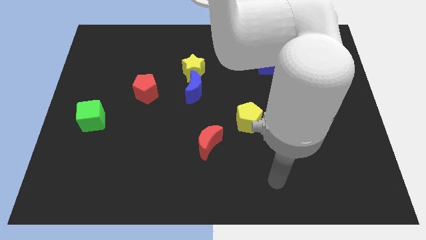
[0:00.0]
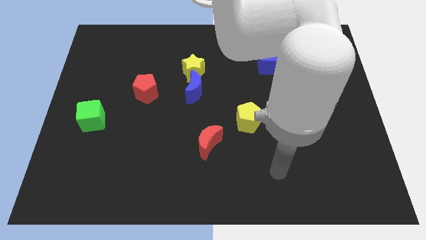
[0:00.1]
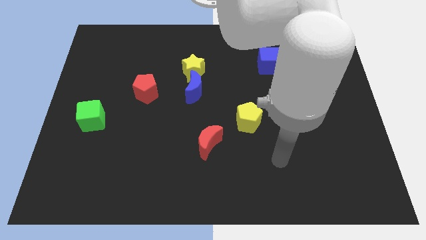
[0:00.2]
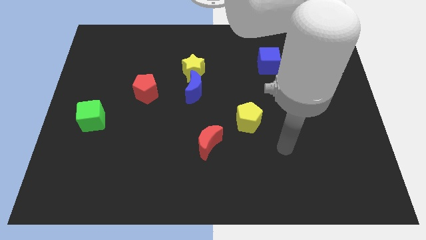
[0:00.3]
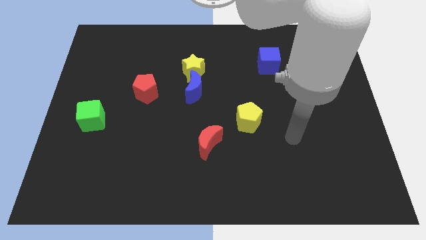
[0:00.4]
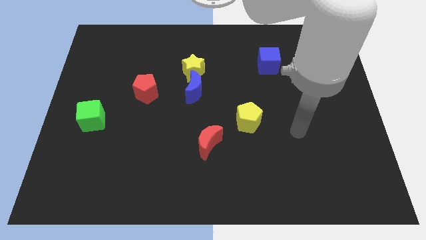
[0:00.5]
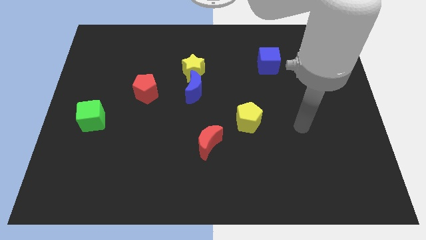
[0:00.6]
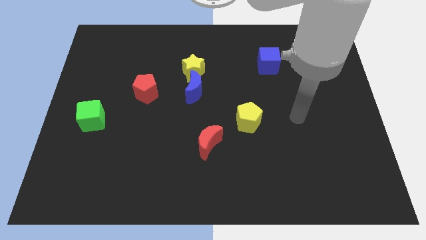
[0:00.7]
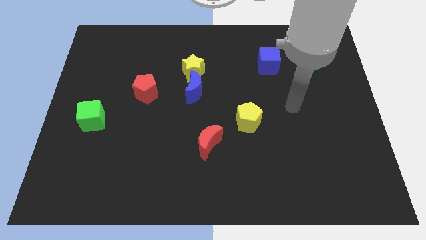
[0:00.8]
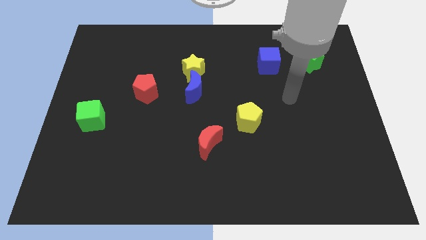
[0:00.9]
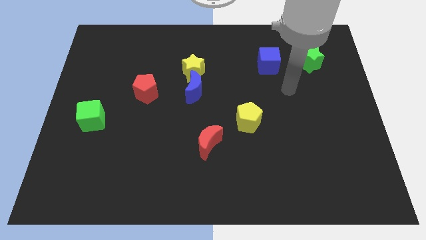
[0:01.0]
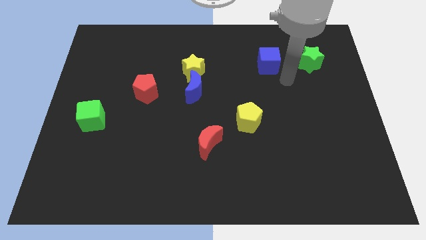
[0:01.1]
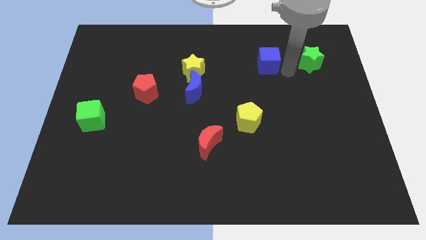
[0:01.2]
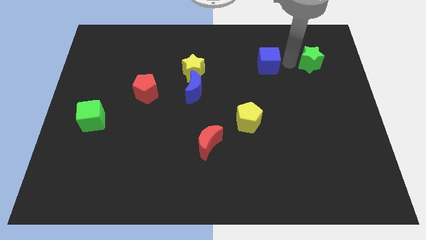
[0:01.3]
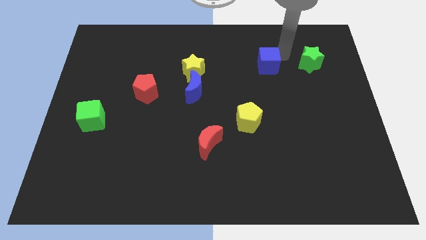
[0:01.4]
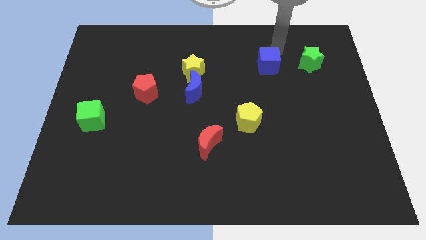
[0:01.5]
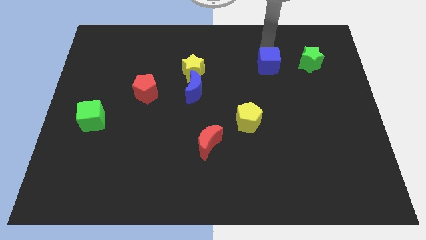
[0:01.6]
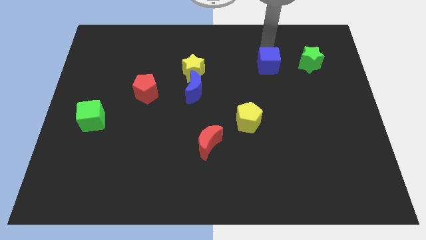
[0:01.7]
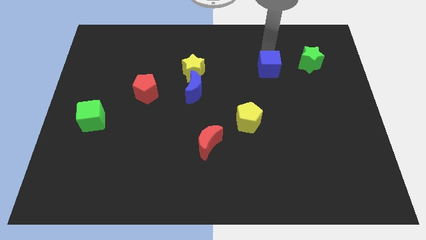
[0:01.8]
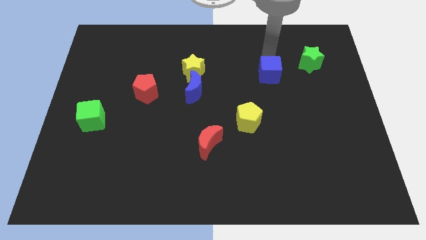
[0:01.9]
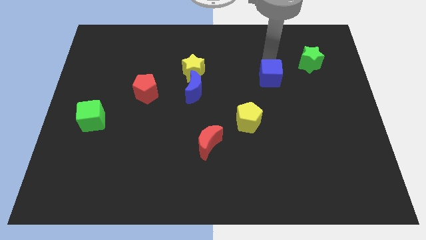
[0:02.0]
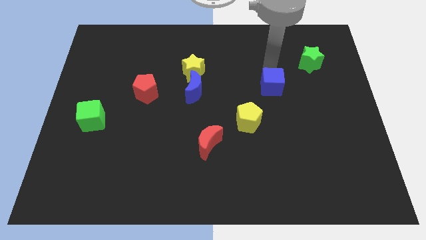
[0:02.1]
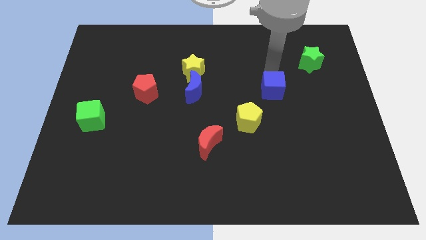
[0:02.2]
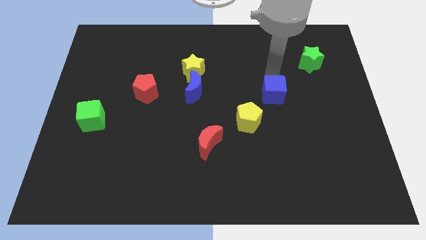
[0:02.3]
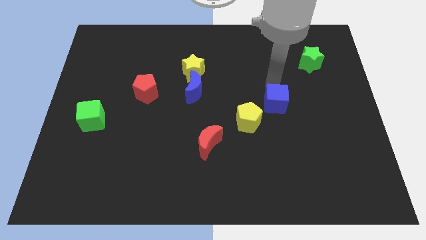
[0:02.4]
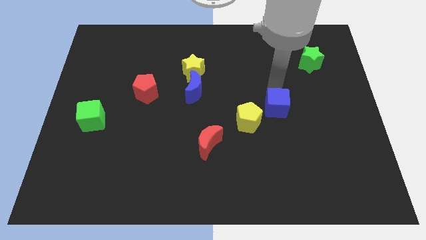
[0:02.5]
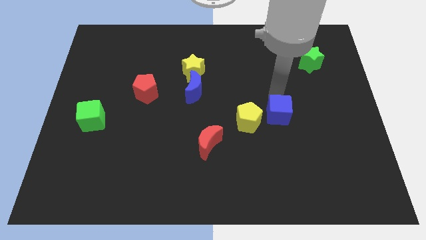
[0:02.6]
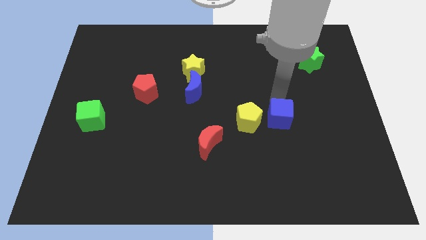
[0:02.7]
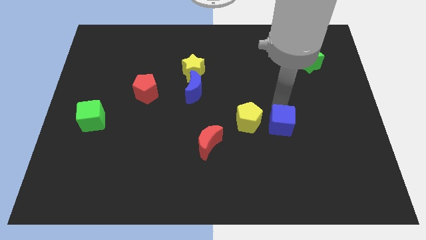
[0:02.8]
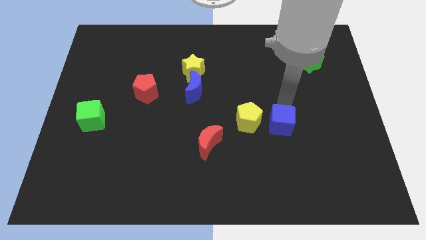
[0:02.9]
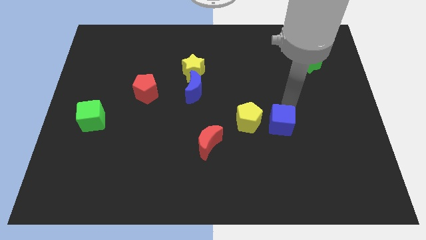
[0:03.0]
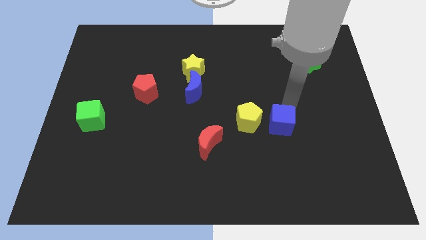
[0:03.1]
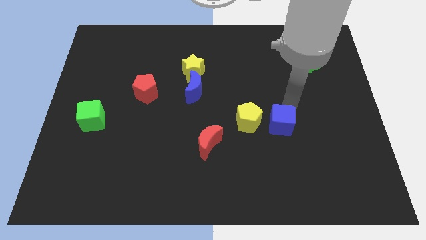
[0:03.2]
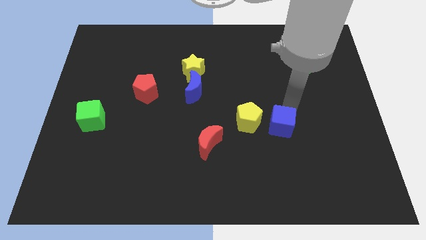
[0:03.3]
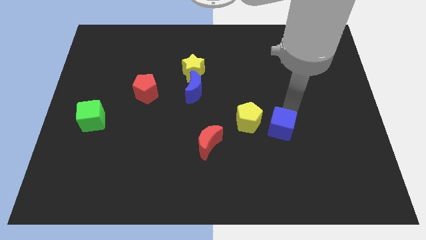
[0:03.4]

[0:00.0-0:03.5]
push the blue cube downwards

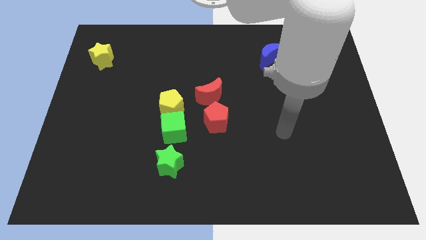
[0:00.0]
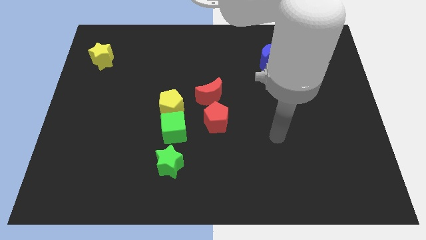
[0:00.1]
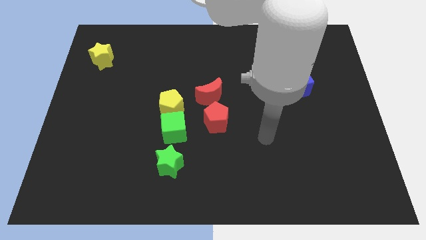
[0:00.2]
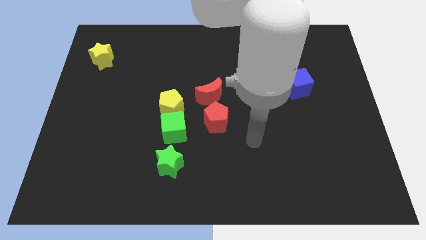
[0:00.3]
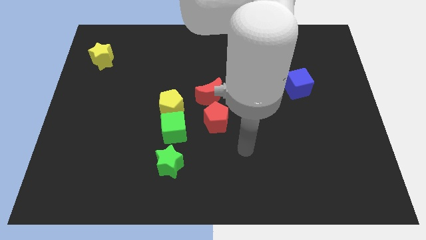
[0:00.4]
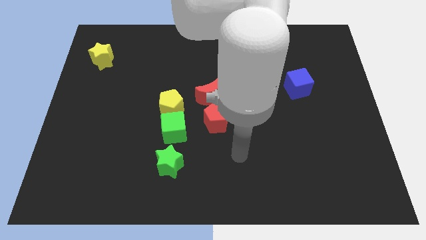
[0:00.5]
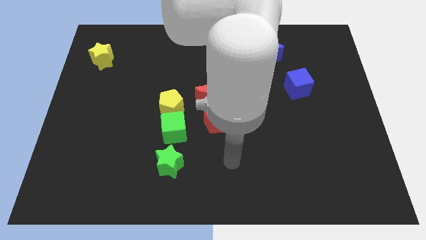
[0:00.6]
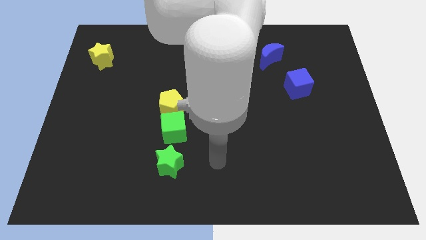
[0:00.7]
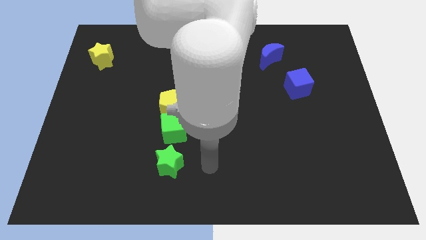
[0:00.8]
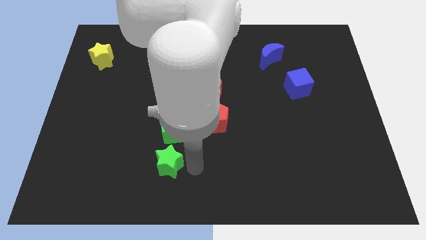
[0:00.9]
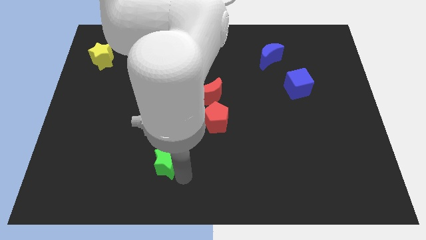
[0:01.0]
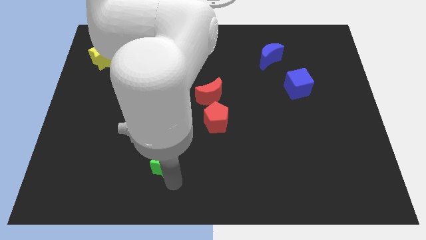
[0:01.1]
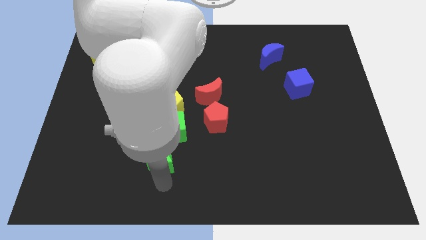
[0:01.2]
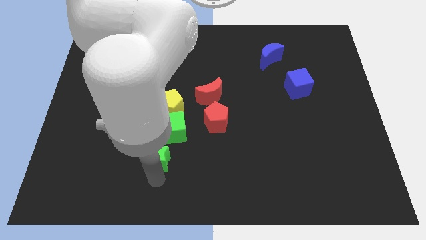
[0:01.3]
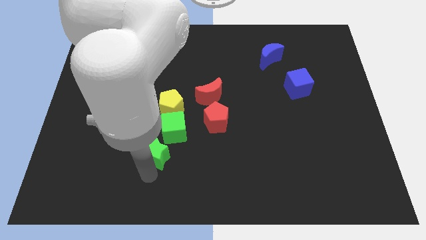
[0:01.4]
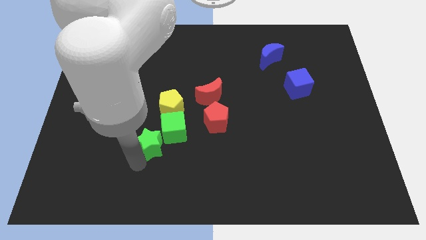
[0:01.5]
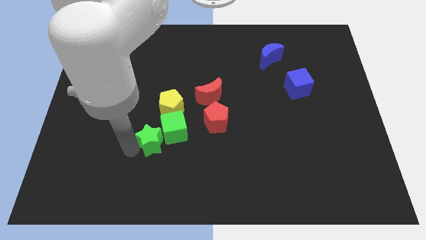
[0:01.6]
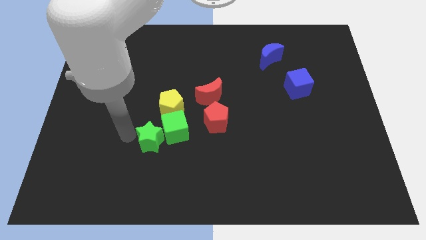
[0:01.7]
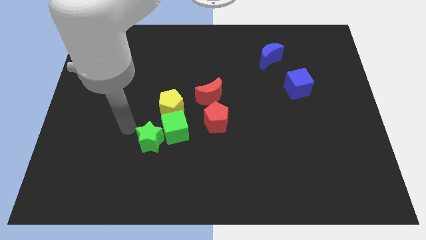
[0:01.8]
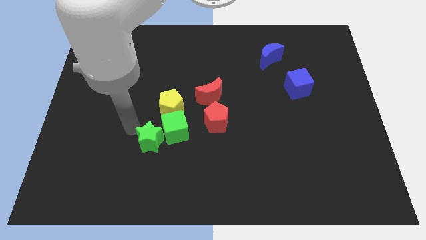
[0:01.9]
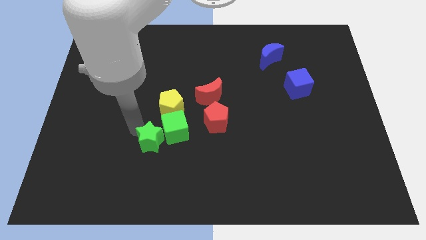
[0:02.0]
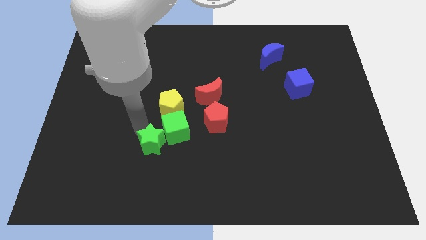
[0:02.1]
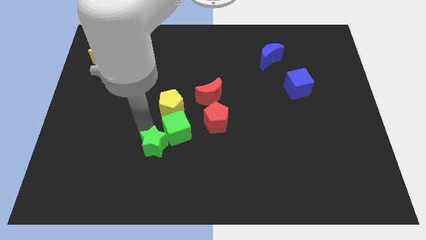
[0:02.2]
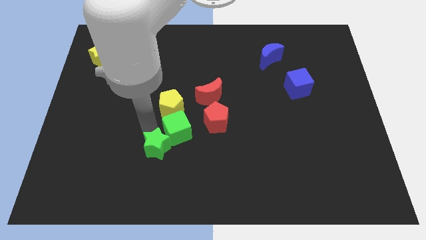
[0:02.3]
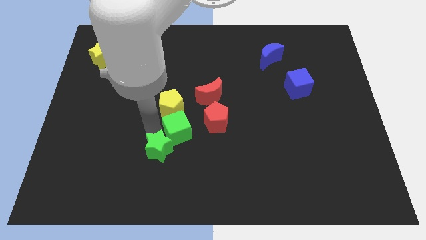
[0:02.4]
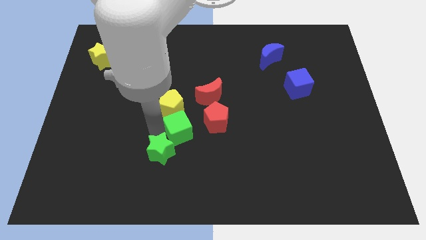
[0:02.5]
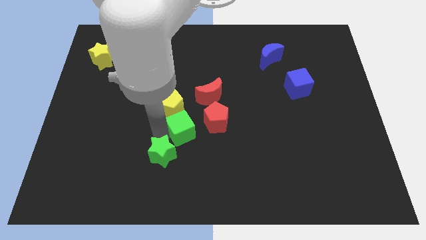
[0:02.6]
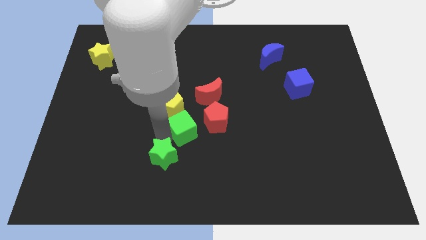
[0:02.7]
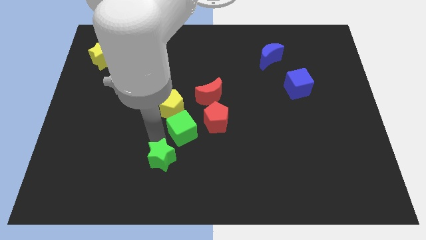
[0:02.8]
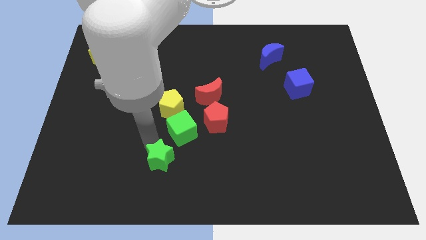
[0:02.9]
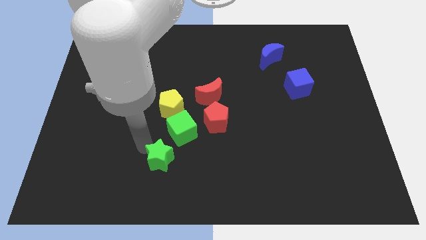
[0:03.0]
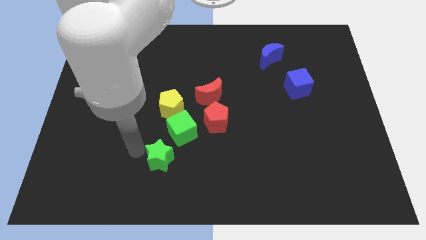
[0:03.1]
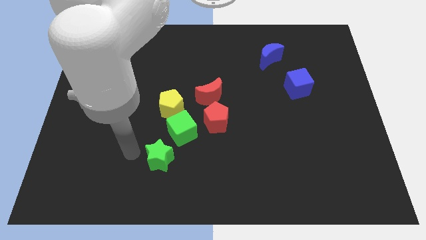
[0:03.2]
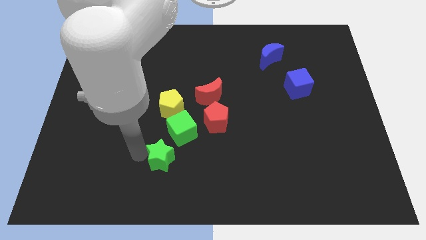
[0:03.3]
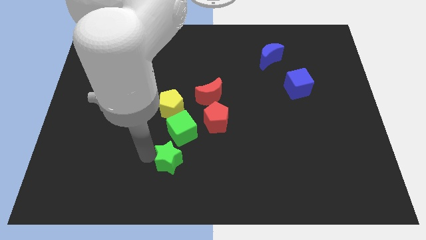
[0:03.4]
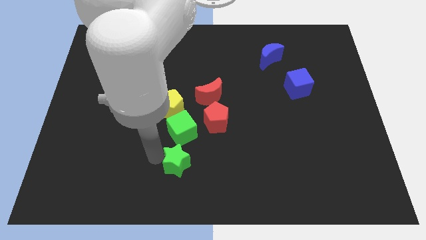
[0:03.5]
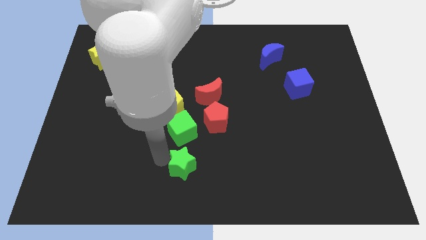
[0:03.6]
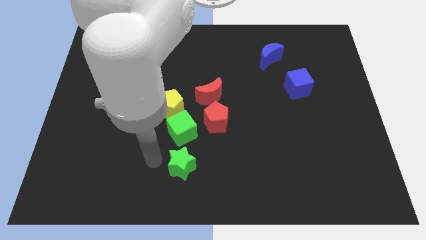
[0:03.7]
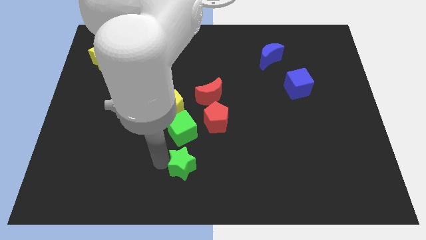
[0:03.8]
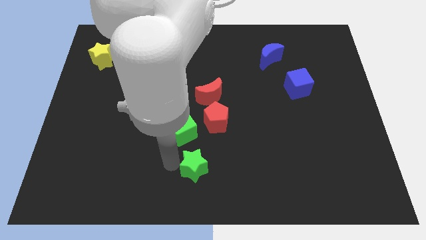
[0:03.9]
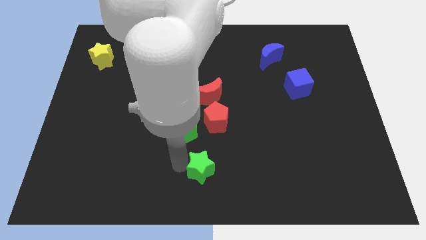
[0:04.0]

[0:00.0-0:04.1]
slightly slide the green star to the right

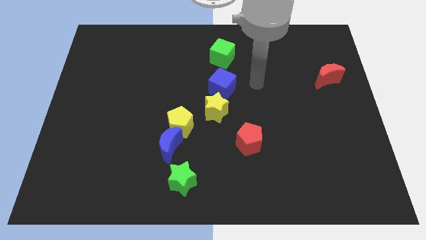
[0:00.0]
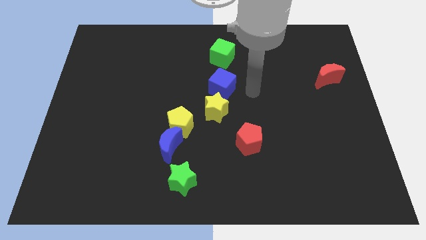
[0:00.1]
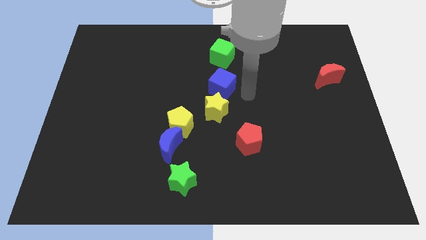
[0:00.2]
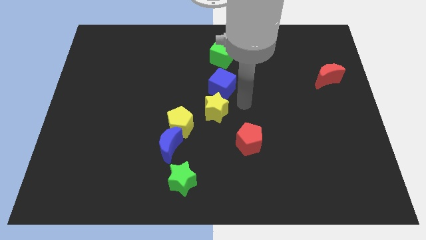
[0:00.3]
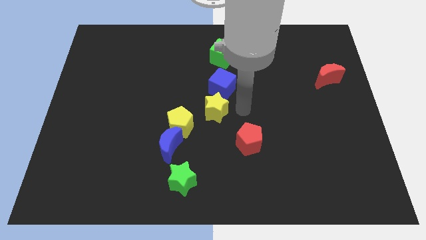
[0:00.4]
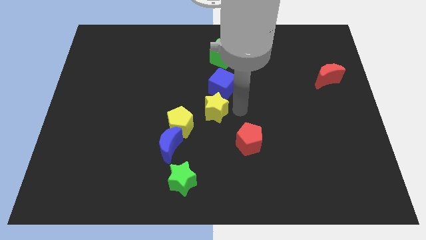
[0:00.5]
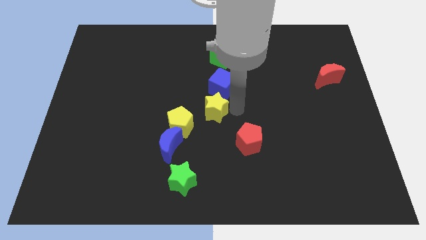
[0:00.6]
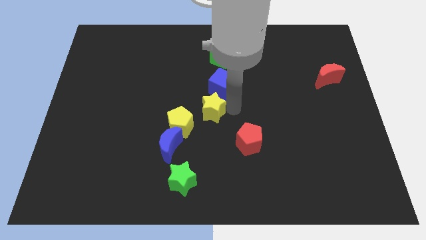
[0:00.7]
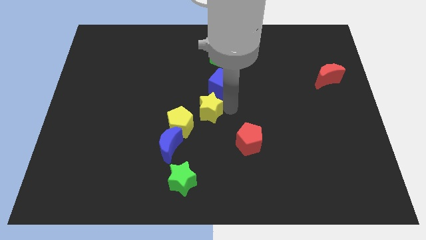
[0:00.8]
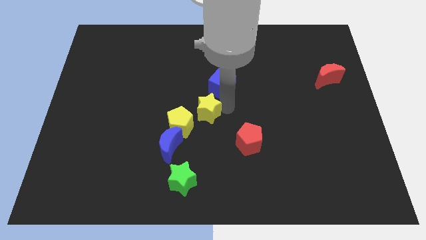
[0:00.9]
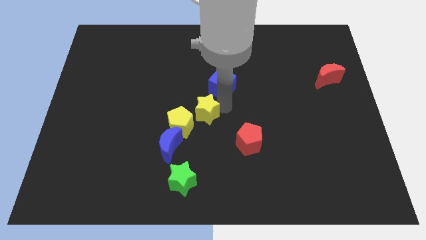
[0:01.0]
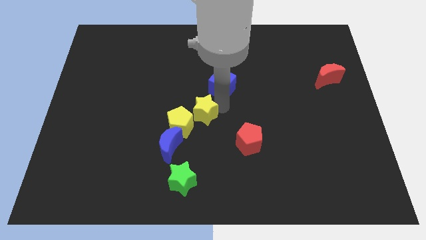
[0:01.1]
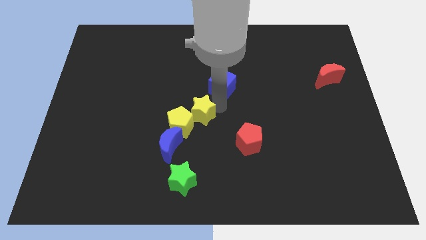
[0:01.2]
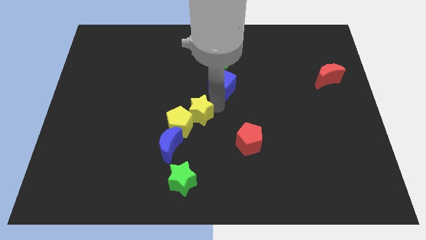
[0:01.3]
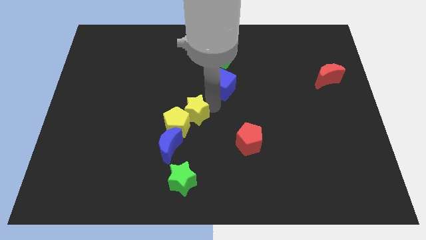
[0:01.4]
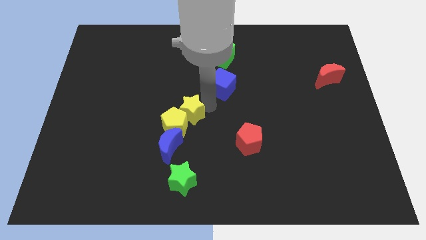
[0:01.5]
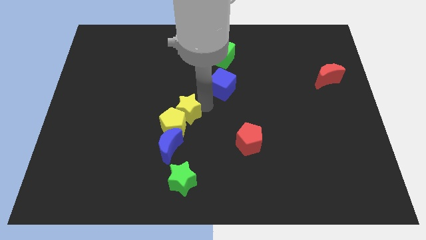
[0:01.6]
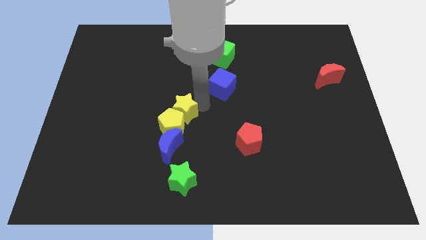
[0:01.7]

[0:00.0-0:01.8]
move the yellow star slightly left
